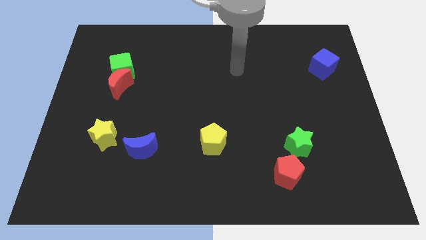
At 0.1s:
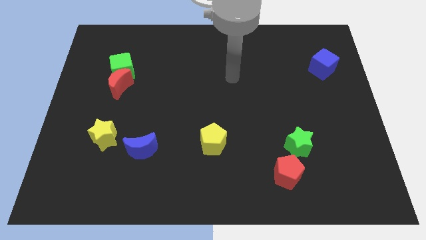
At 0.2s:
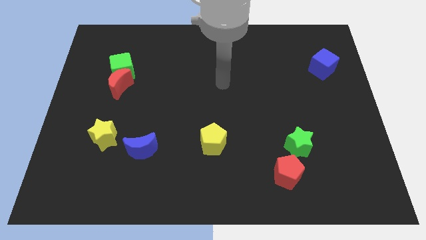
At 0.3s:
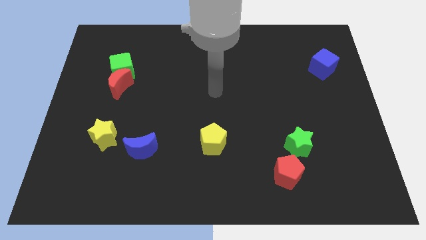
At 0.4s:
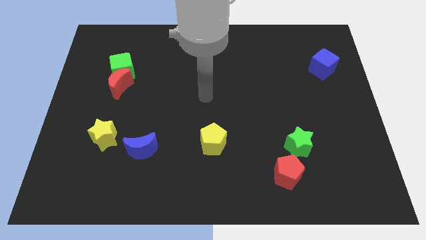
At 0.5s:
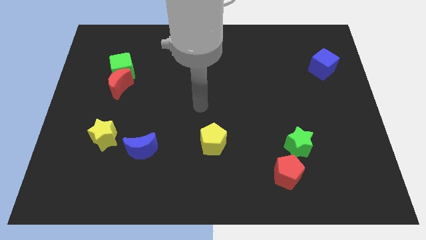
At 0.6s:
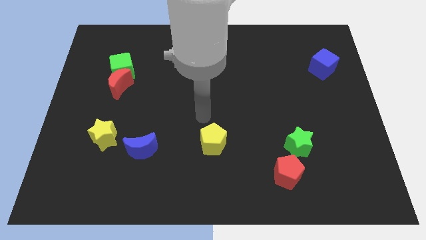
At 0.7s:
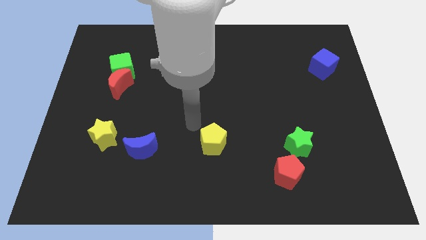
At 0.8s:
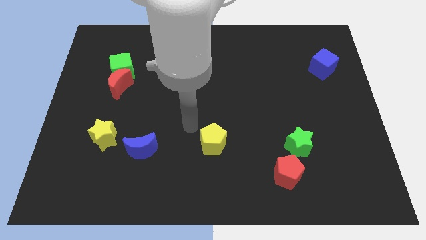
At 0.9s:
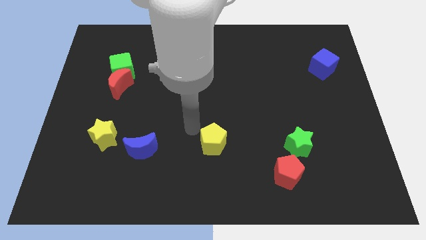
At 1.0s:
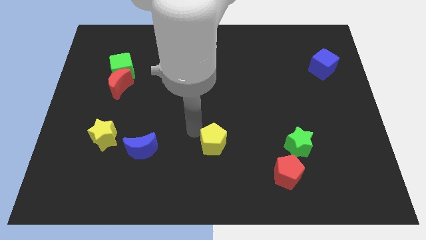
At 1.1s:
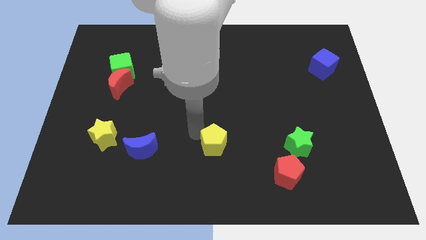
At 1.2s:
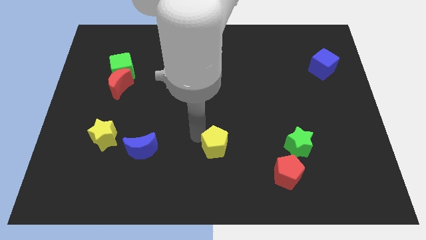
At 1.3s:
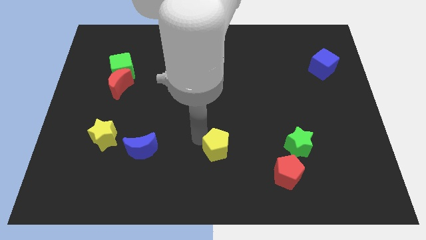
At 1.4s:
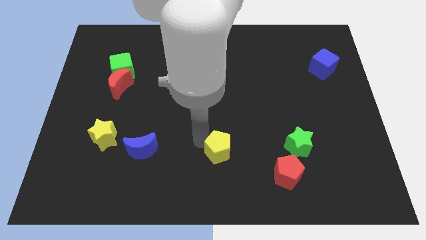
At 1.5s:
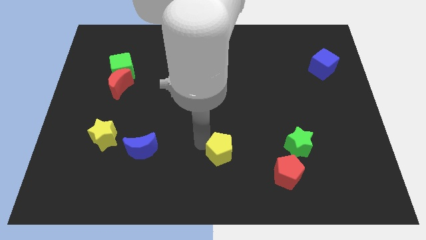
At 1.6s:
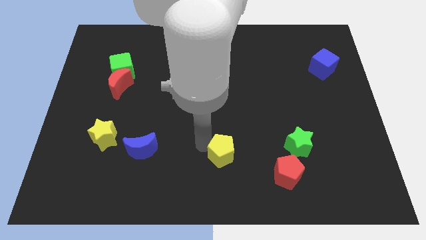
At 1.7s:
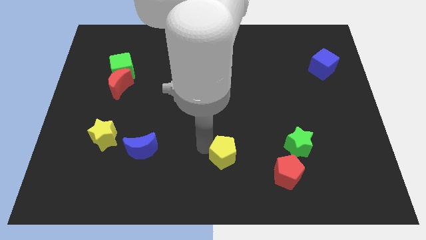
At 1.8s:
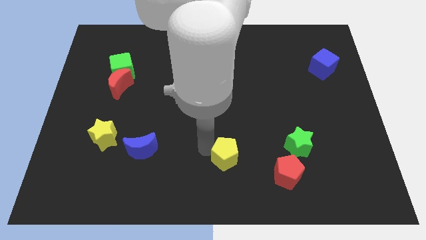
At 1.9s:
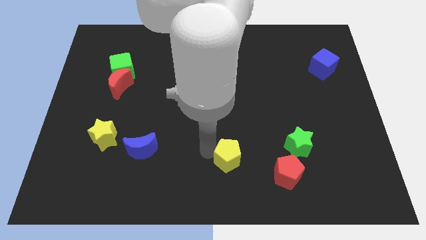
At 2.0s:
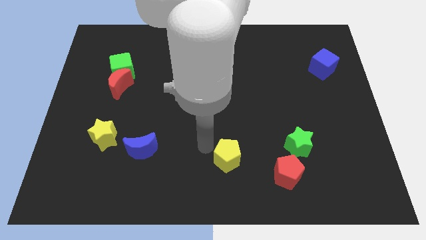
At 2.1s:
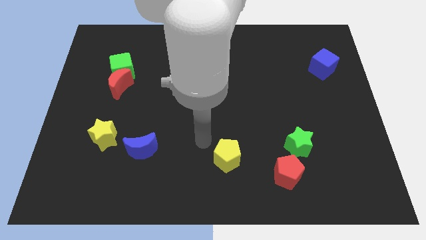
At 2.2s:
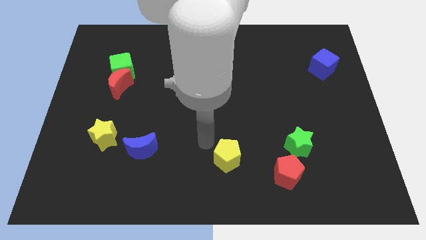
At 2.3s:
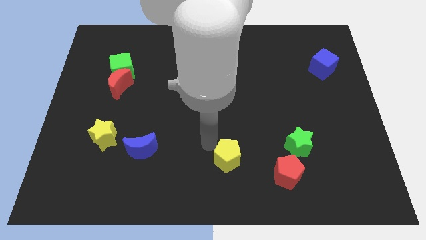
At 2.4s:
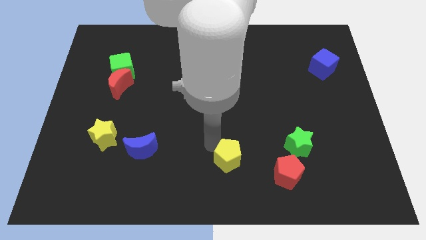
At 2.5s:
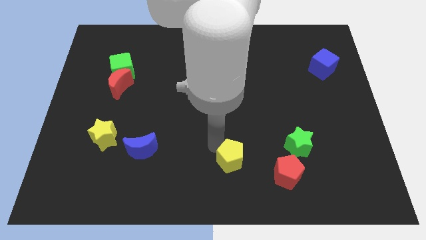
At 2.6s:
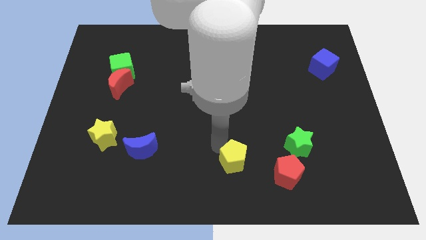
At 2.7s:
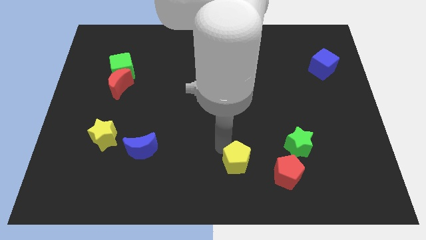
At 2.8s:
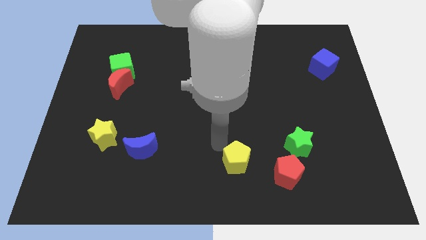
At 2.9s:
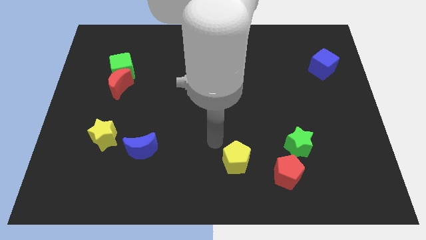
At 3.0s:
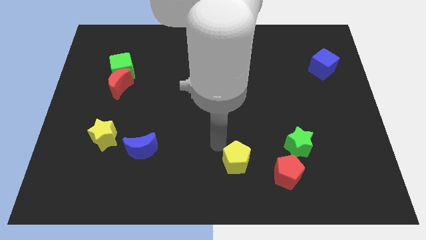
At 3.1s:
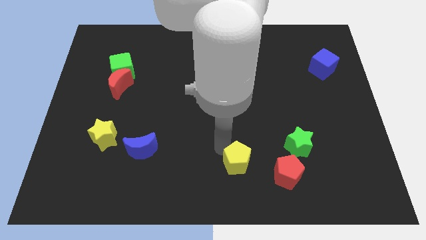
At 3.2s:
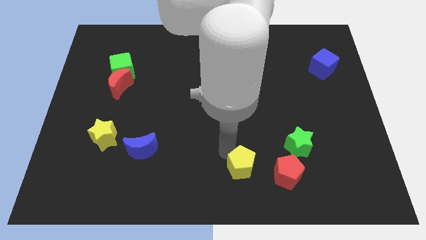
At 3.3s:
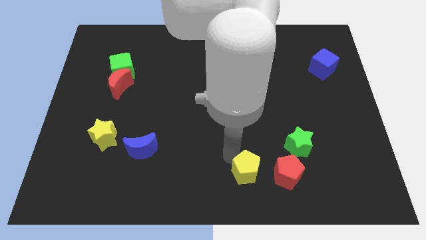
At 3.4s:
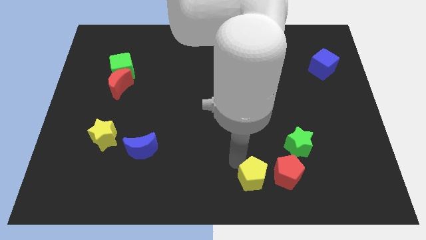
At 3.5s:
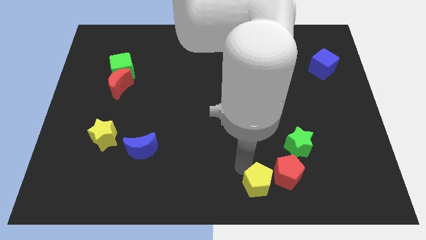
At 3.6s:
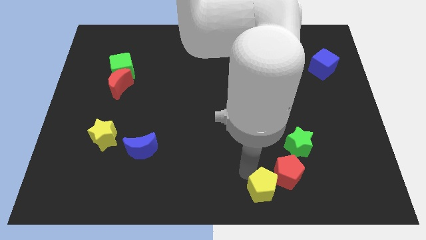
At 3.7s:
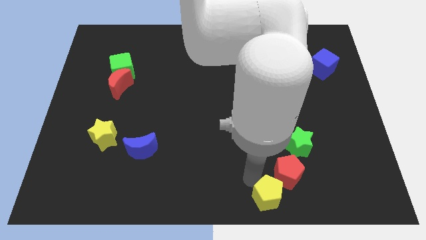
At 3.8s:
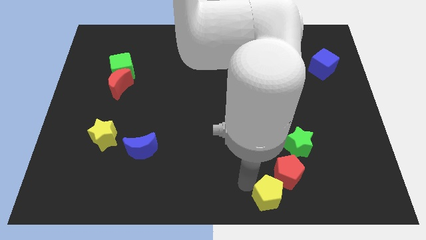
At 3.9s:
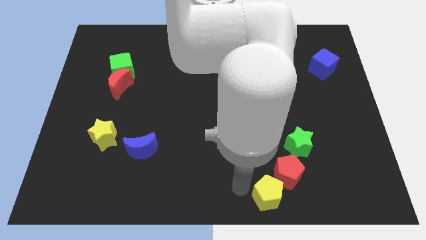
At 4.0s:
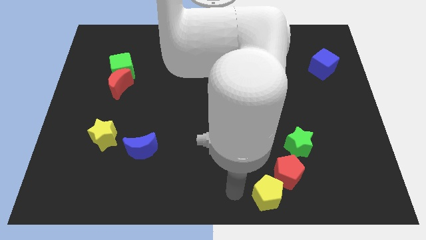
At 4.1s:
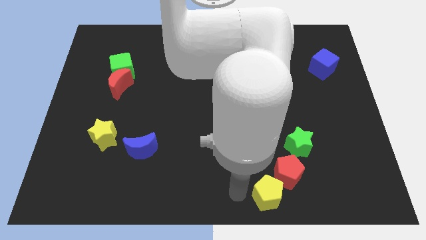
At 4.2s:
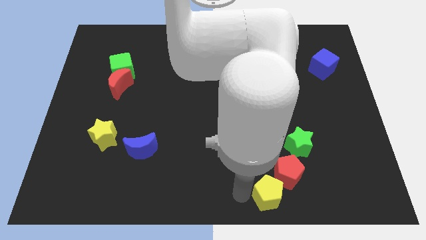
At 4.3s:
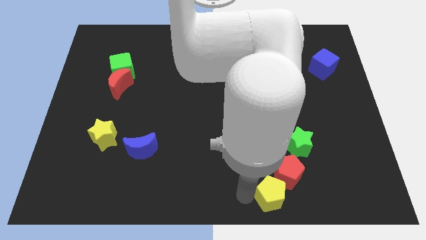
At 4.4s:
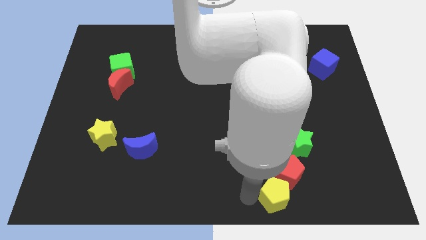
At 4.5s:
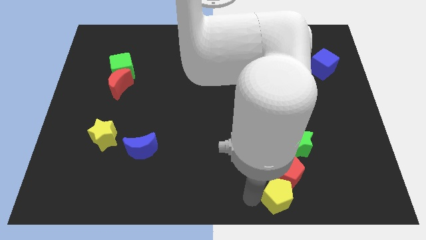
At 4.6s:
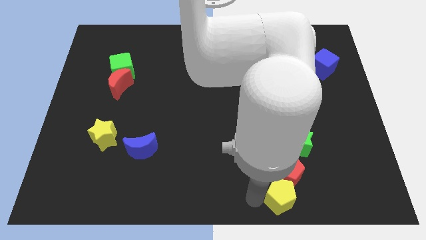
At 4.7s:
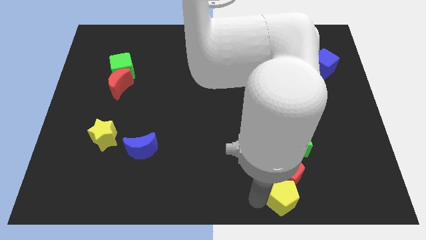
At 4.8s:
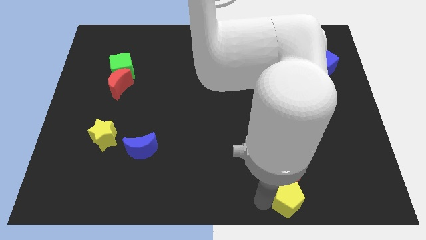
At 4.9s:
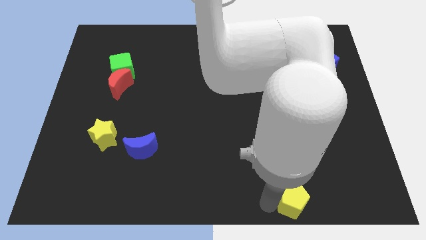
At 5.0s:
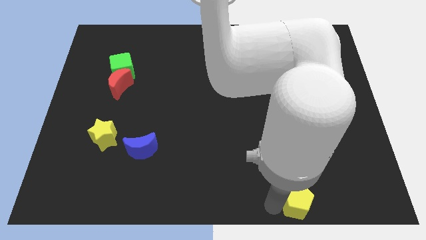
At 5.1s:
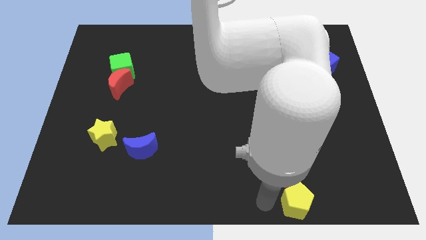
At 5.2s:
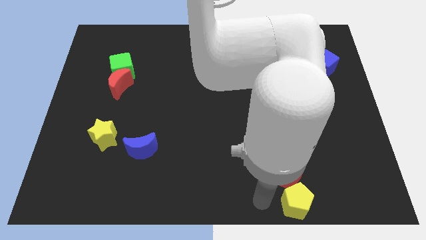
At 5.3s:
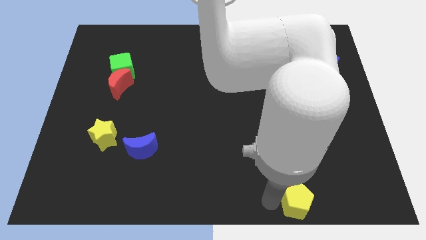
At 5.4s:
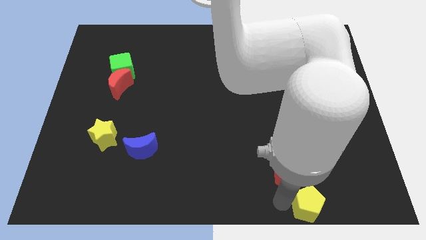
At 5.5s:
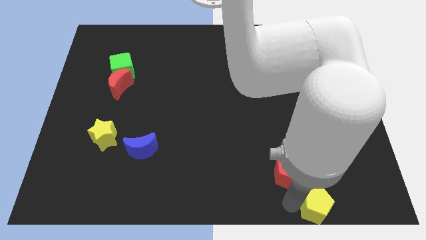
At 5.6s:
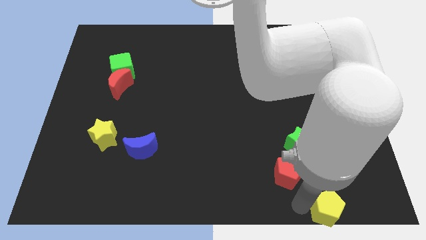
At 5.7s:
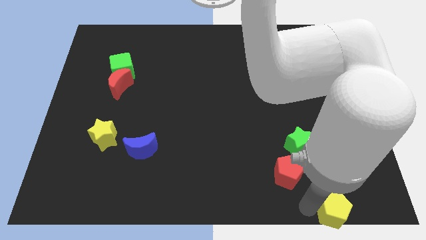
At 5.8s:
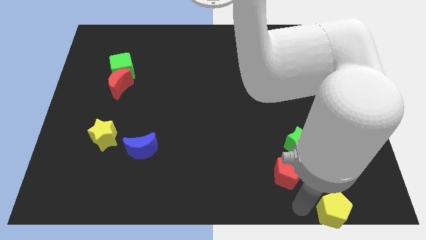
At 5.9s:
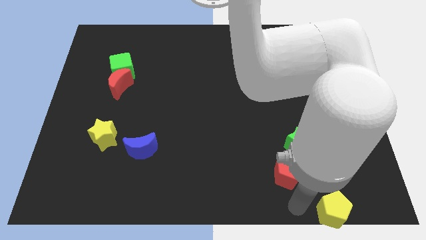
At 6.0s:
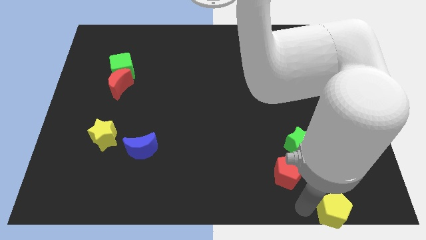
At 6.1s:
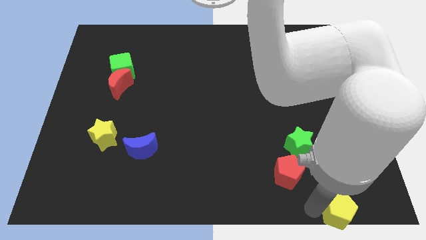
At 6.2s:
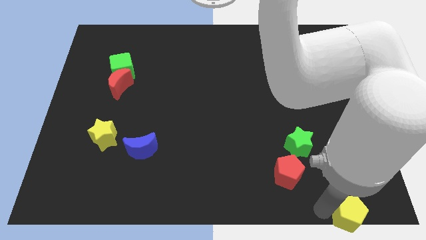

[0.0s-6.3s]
push the yellow pentagon to the bottom right corner

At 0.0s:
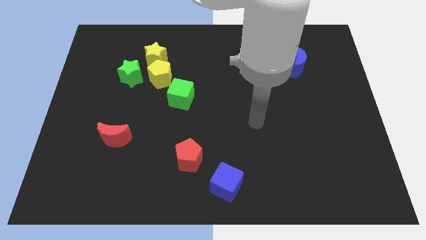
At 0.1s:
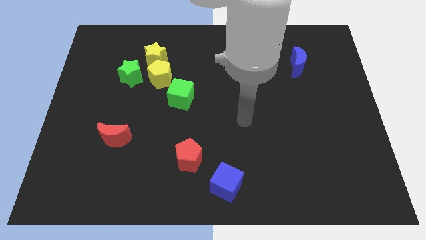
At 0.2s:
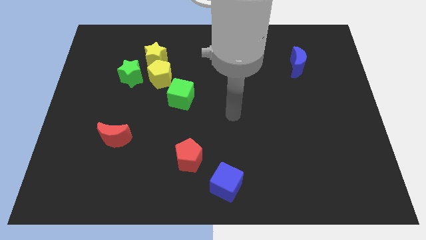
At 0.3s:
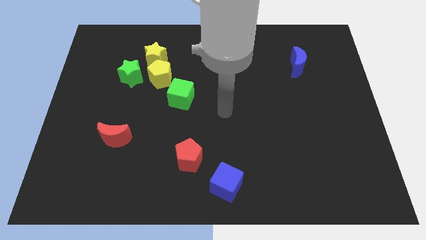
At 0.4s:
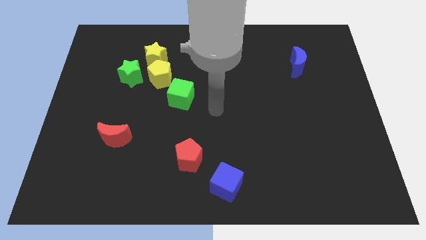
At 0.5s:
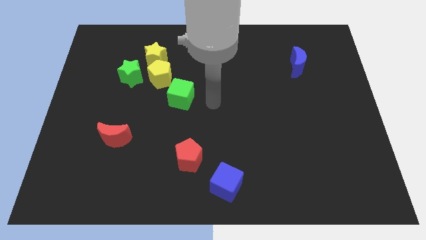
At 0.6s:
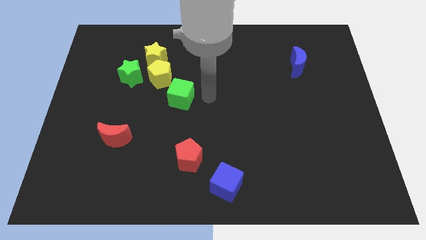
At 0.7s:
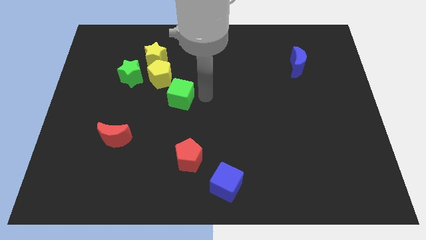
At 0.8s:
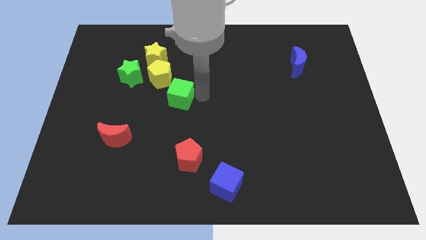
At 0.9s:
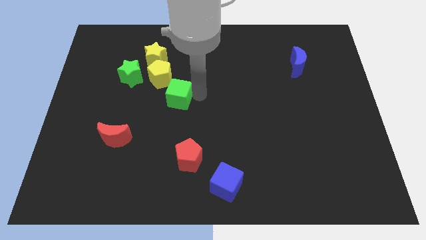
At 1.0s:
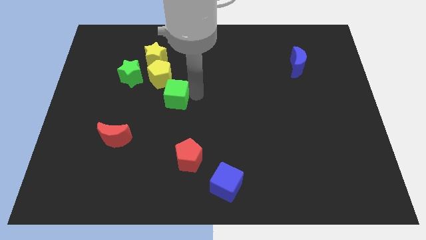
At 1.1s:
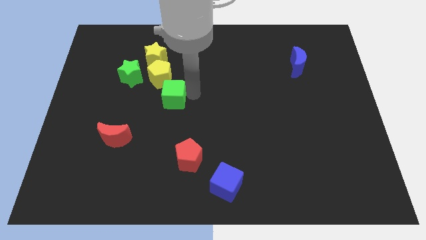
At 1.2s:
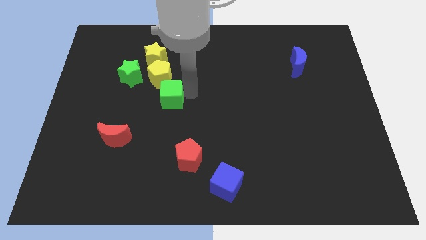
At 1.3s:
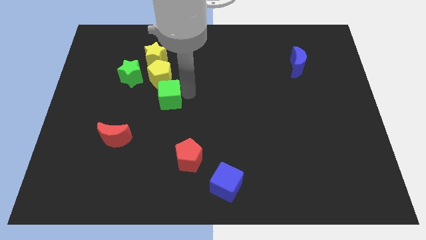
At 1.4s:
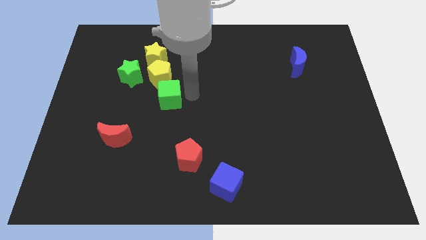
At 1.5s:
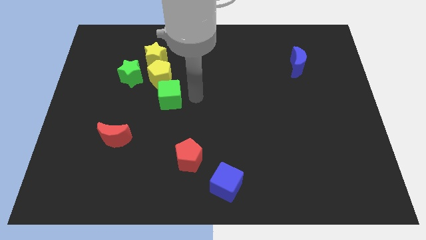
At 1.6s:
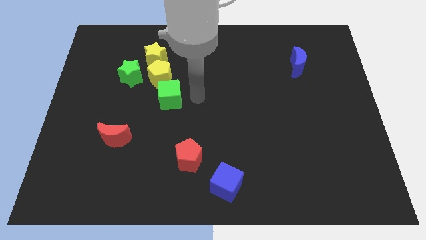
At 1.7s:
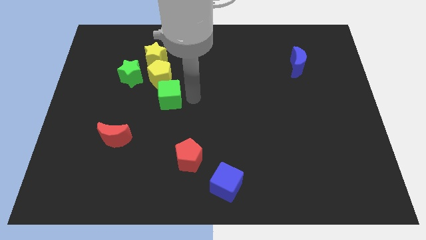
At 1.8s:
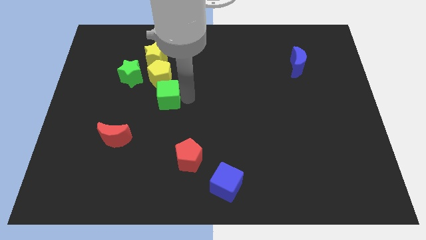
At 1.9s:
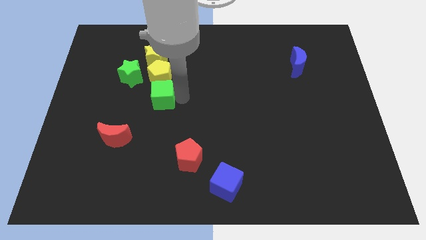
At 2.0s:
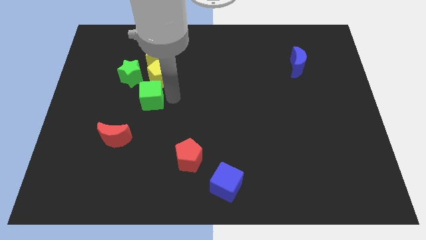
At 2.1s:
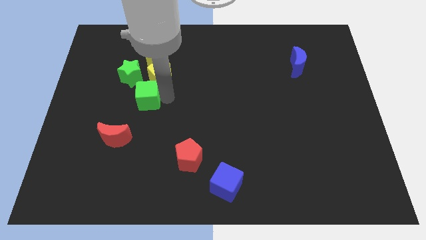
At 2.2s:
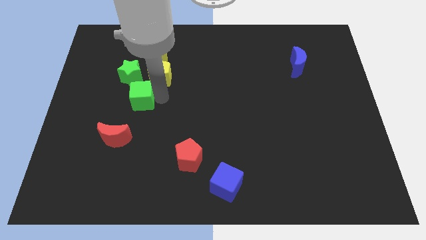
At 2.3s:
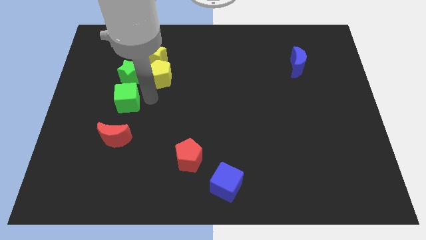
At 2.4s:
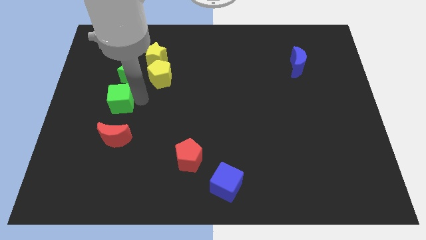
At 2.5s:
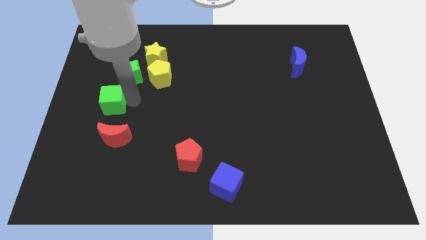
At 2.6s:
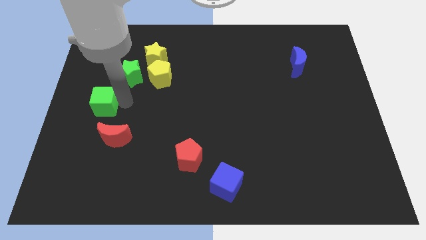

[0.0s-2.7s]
move the green cube to the center left
